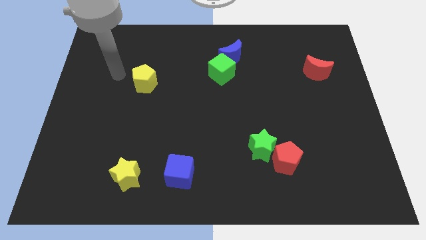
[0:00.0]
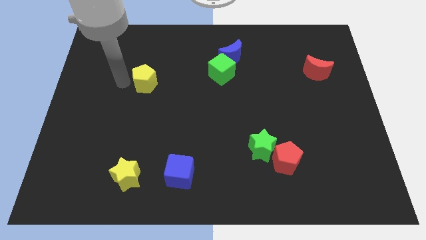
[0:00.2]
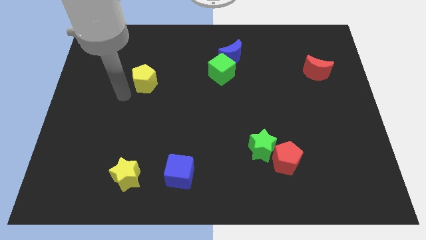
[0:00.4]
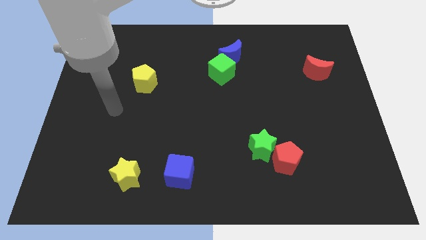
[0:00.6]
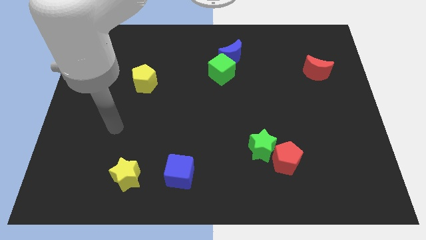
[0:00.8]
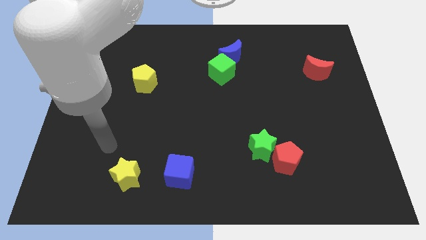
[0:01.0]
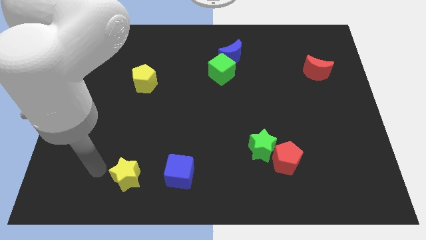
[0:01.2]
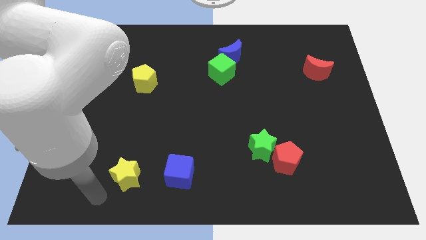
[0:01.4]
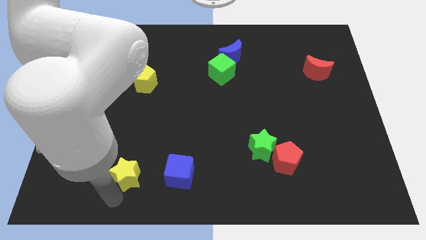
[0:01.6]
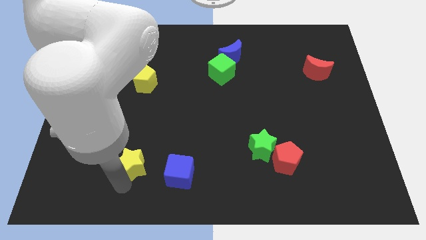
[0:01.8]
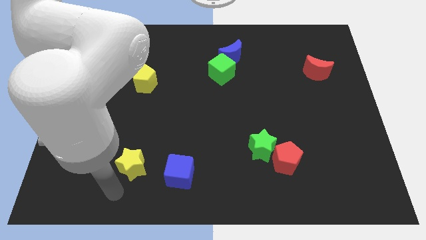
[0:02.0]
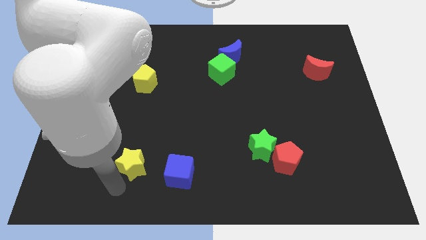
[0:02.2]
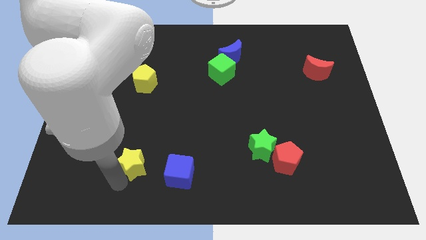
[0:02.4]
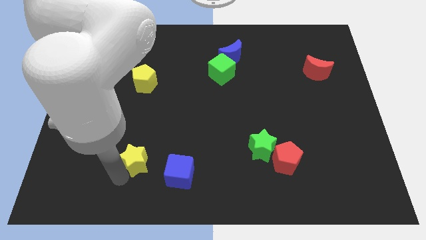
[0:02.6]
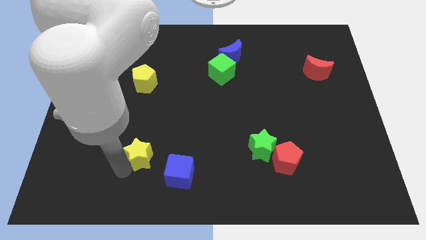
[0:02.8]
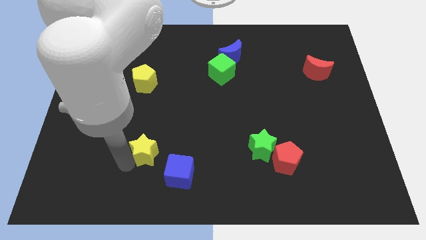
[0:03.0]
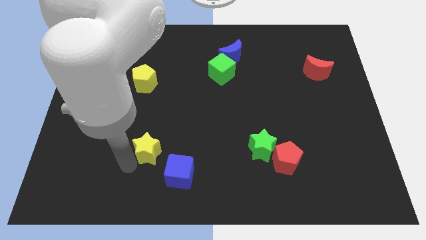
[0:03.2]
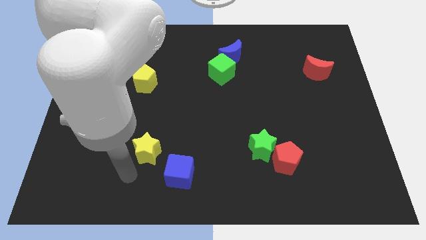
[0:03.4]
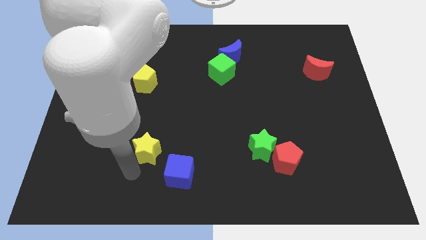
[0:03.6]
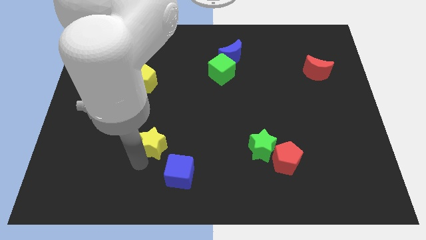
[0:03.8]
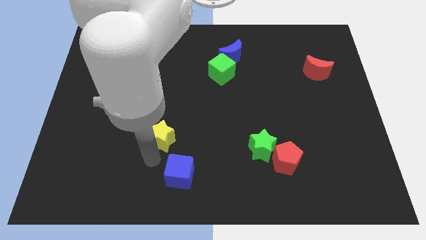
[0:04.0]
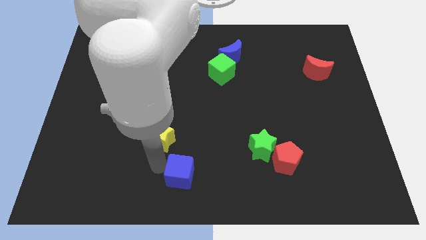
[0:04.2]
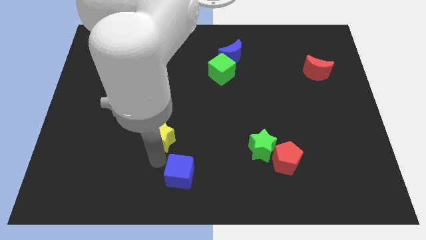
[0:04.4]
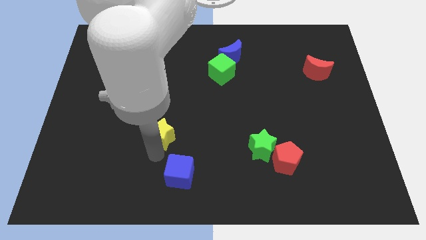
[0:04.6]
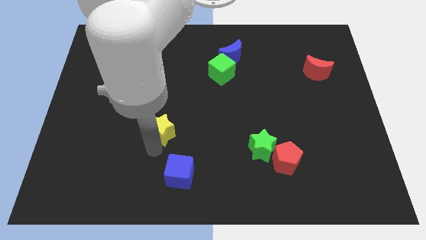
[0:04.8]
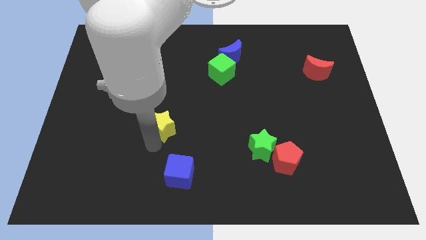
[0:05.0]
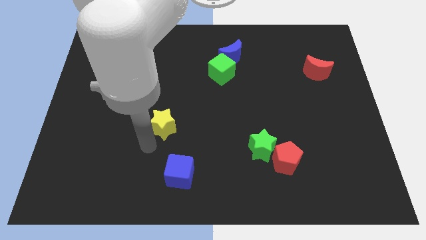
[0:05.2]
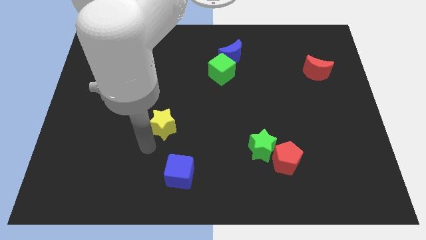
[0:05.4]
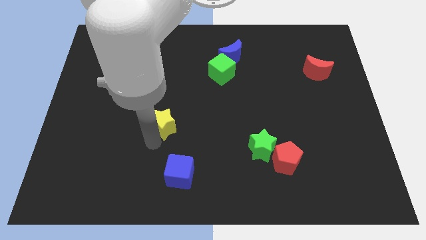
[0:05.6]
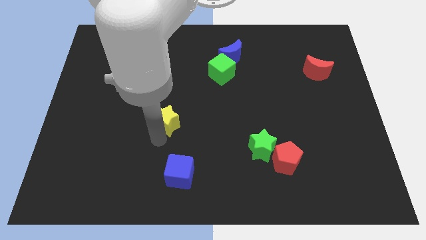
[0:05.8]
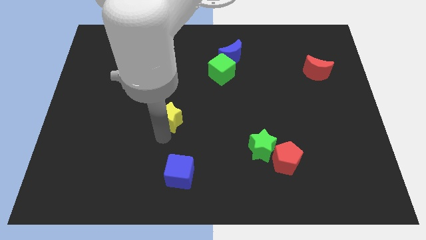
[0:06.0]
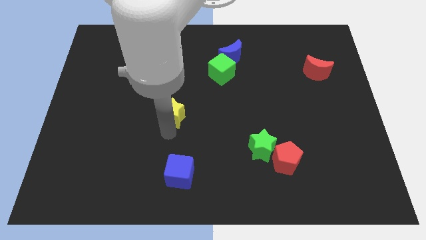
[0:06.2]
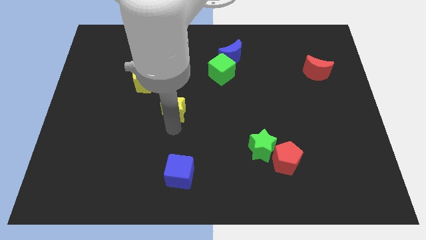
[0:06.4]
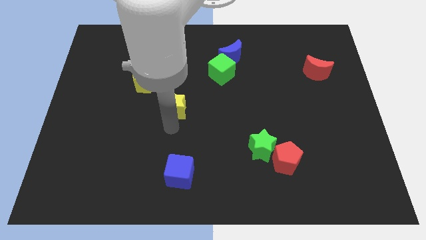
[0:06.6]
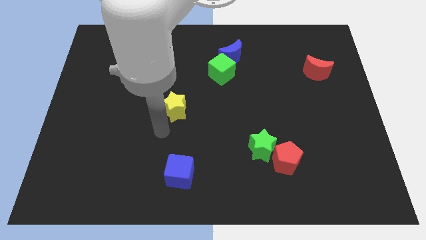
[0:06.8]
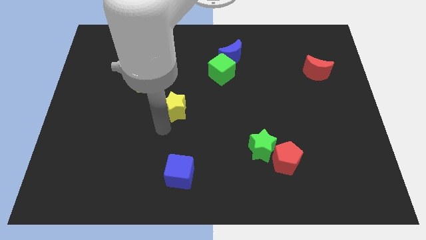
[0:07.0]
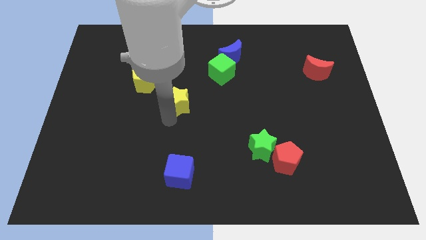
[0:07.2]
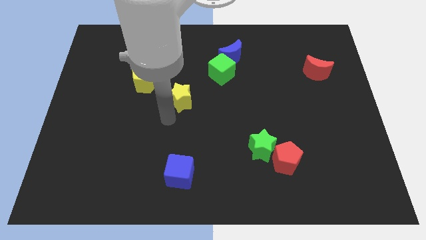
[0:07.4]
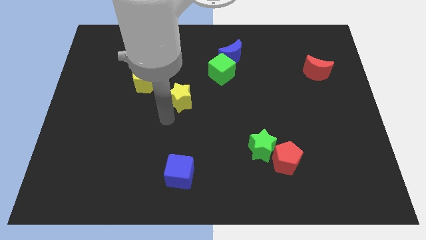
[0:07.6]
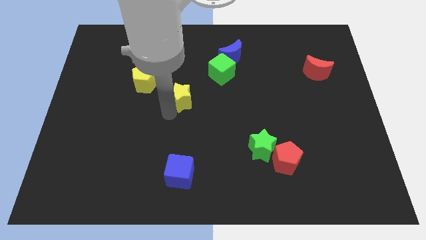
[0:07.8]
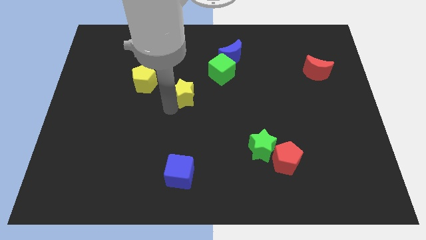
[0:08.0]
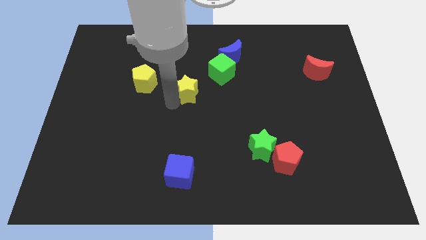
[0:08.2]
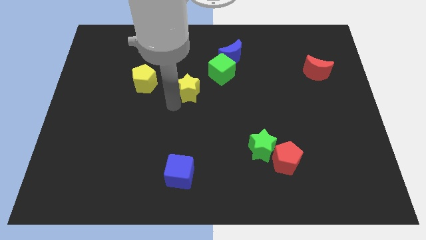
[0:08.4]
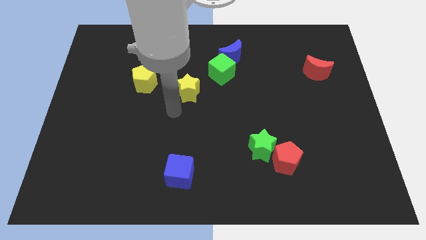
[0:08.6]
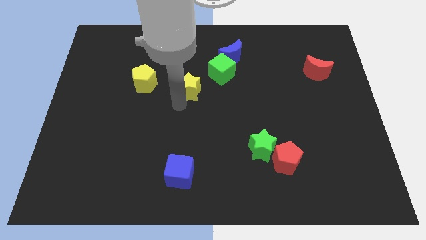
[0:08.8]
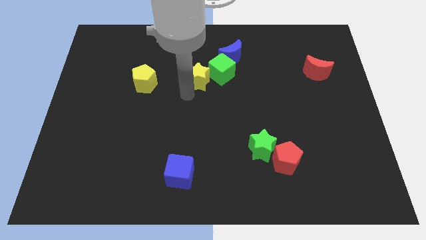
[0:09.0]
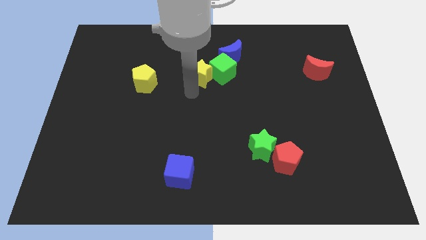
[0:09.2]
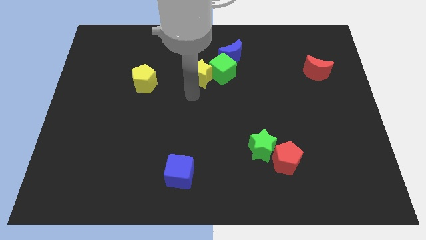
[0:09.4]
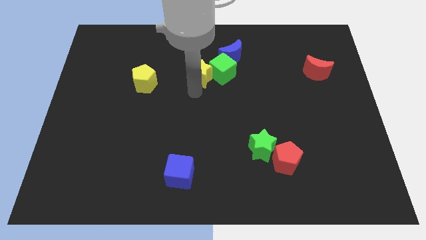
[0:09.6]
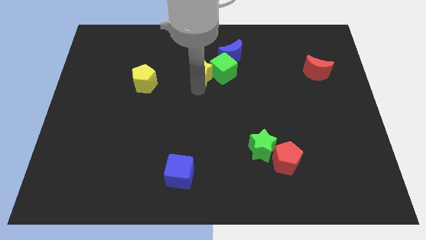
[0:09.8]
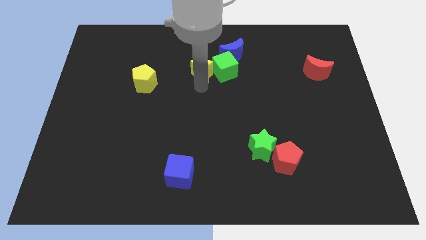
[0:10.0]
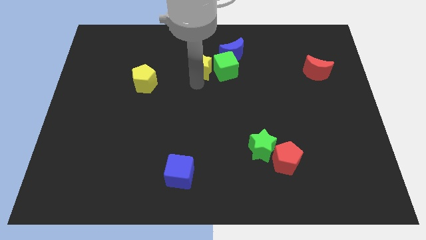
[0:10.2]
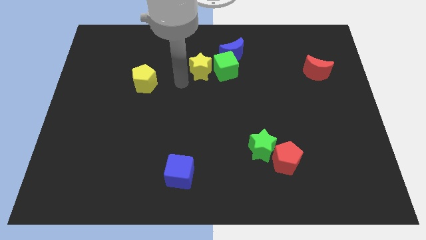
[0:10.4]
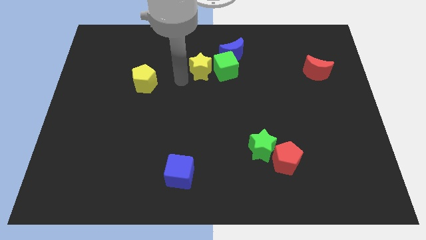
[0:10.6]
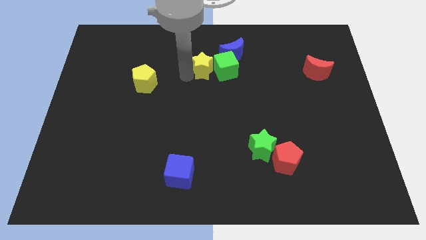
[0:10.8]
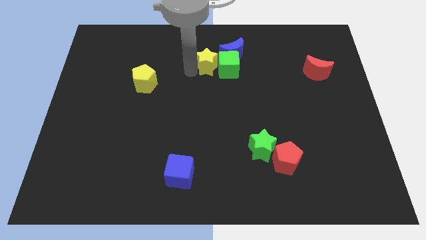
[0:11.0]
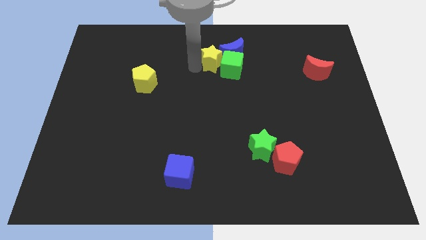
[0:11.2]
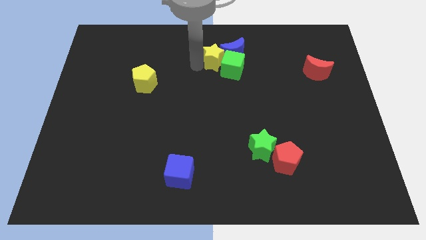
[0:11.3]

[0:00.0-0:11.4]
push the yellow star close to the blue moon

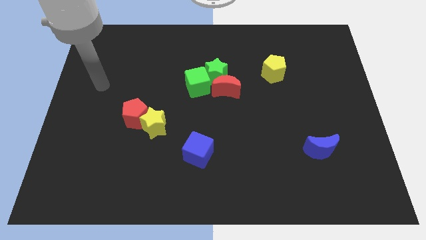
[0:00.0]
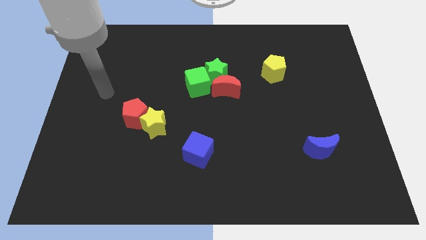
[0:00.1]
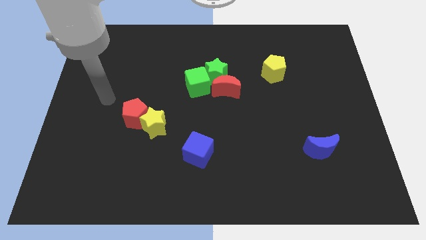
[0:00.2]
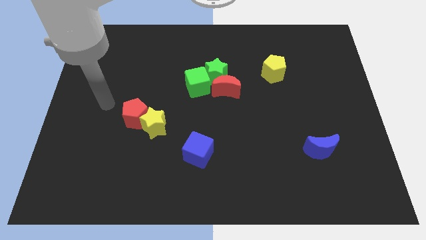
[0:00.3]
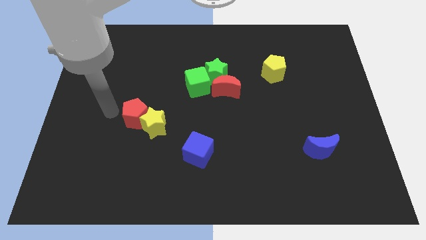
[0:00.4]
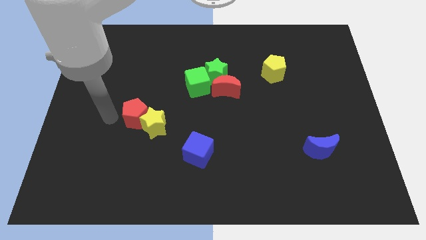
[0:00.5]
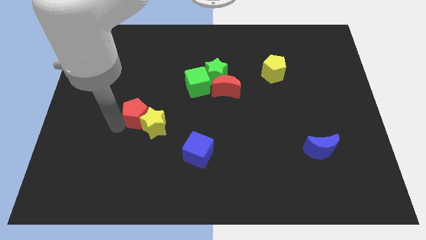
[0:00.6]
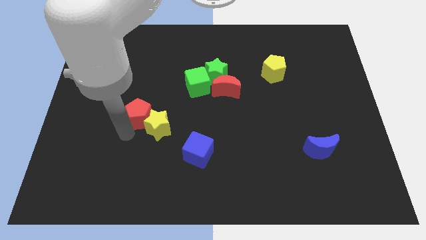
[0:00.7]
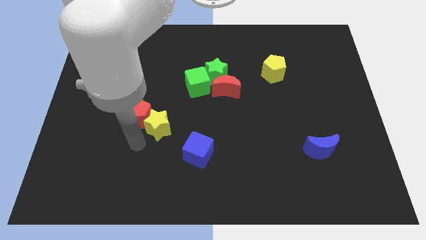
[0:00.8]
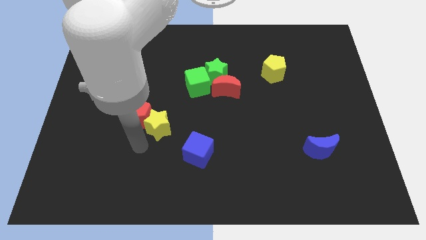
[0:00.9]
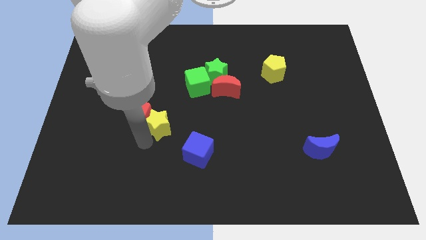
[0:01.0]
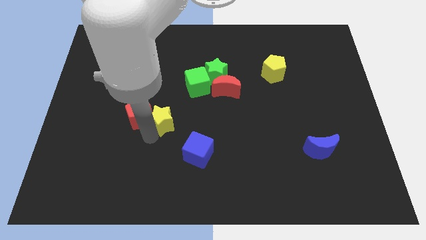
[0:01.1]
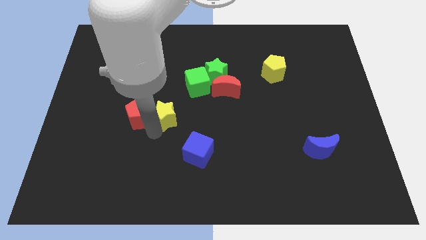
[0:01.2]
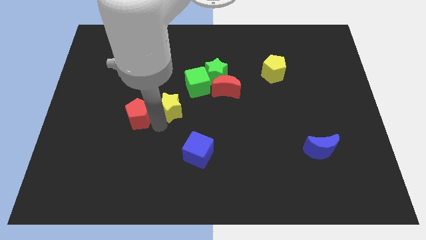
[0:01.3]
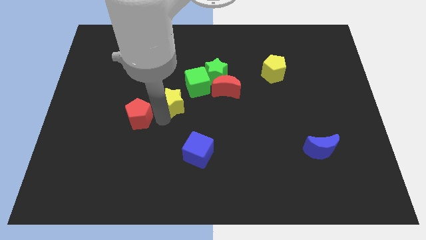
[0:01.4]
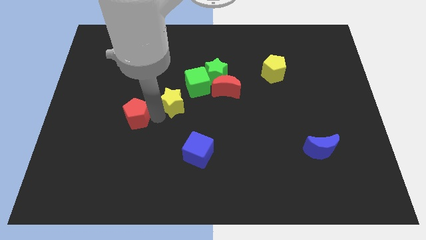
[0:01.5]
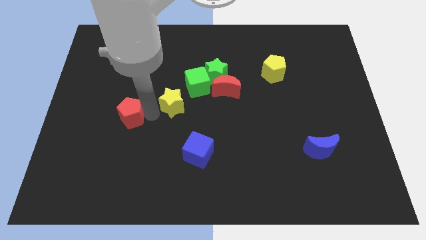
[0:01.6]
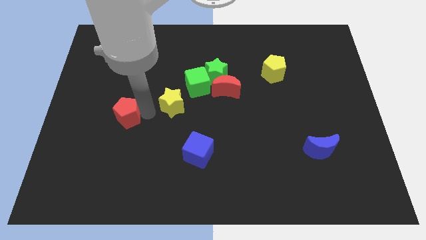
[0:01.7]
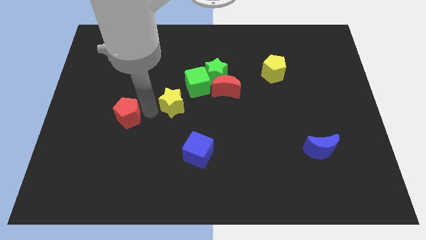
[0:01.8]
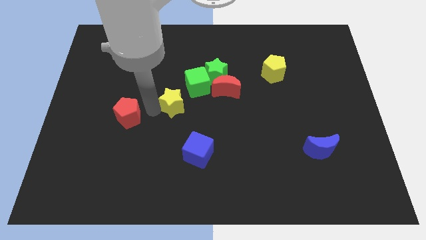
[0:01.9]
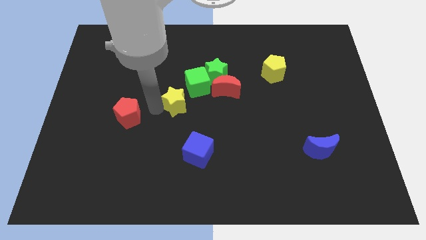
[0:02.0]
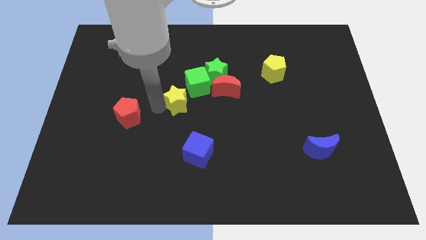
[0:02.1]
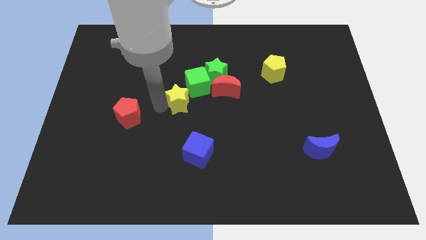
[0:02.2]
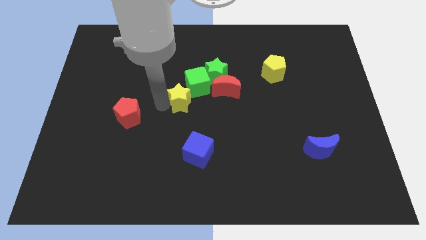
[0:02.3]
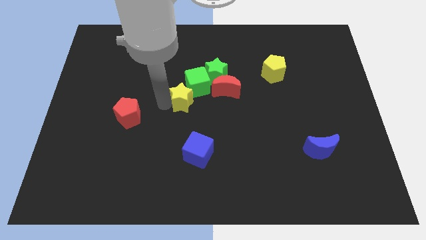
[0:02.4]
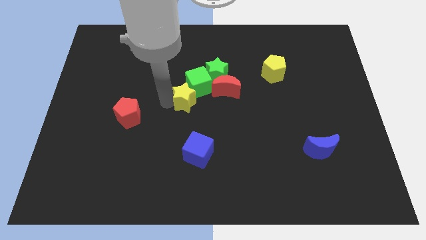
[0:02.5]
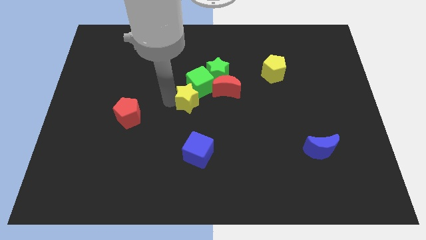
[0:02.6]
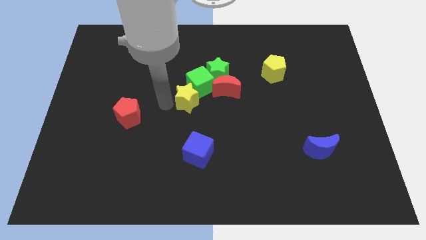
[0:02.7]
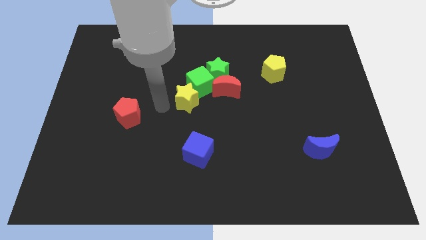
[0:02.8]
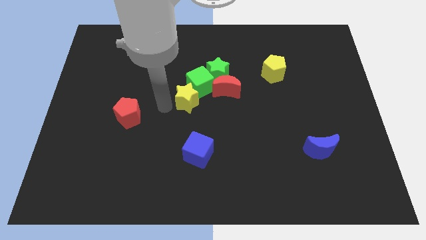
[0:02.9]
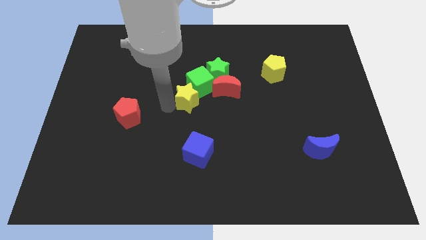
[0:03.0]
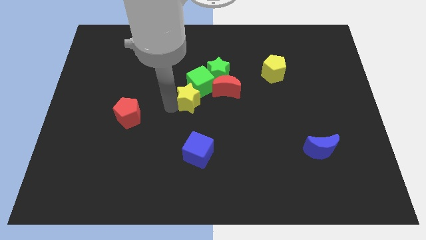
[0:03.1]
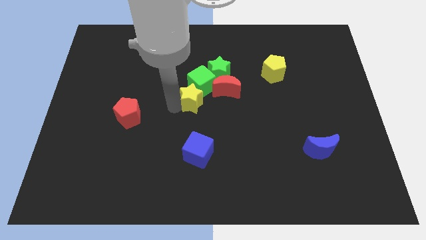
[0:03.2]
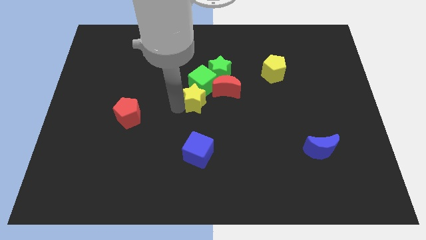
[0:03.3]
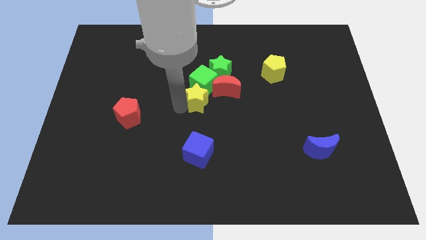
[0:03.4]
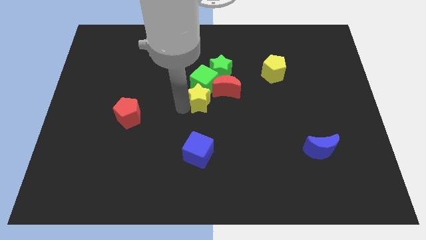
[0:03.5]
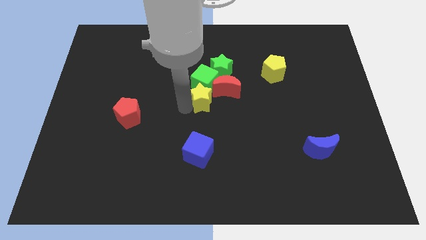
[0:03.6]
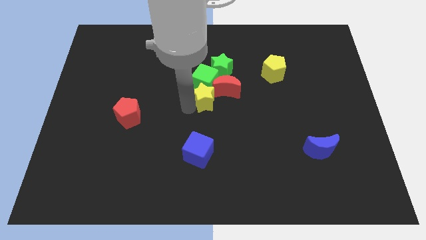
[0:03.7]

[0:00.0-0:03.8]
slide the yellow star towards the red moon
